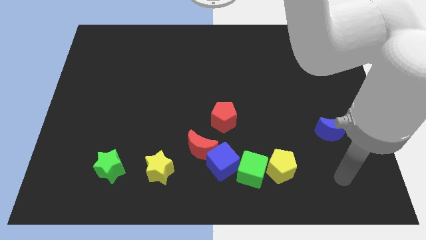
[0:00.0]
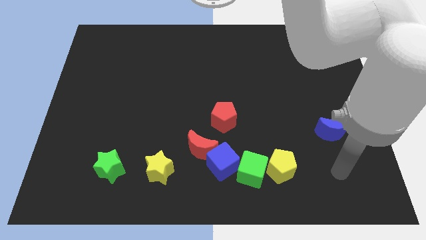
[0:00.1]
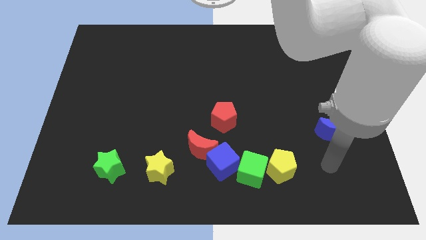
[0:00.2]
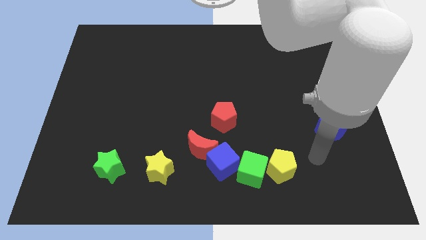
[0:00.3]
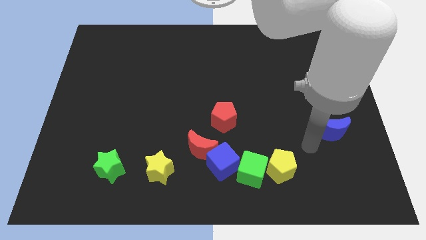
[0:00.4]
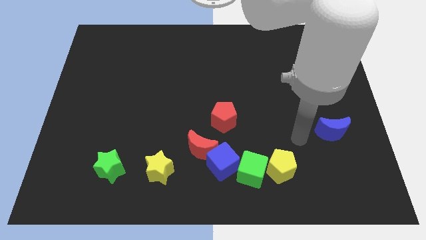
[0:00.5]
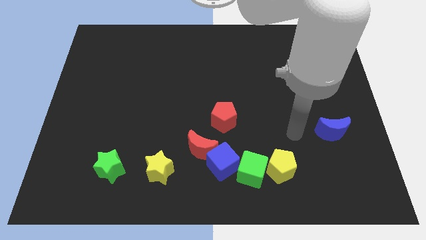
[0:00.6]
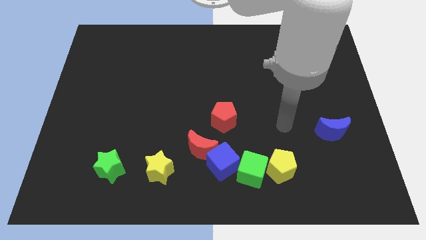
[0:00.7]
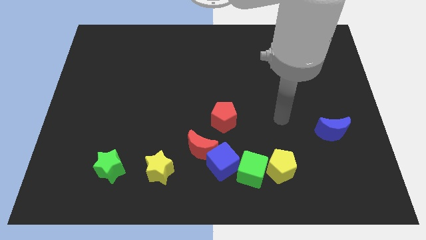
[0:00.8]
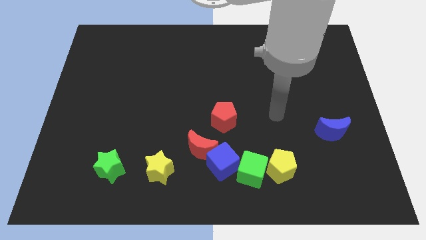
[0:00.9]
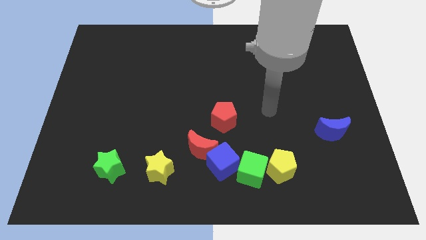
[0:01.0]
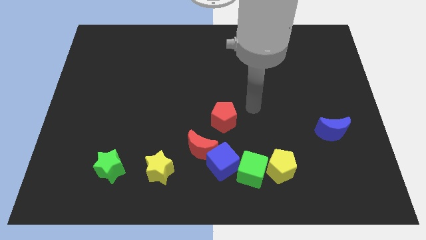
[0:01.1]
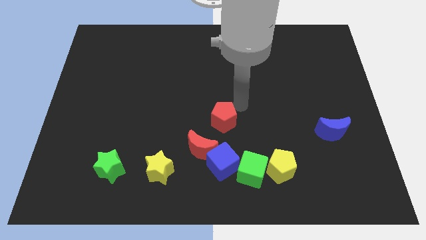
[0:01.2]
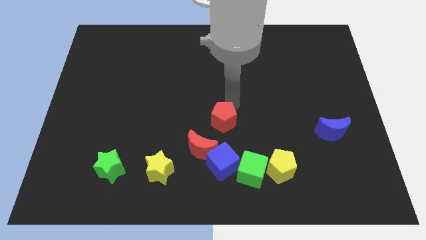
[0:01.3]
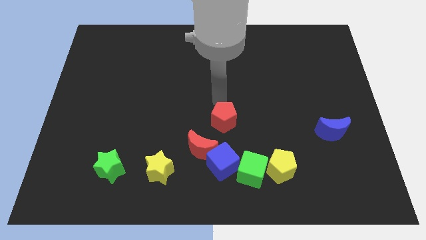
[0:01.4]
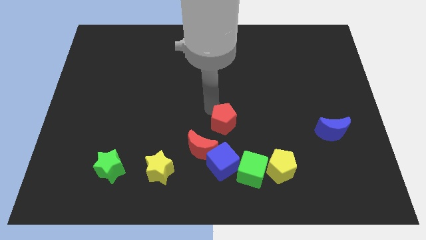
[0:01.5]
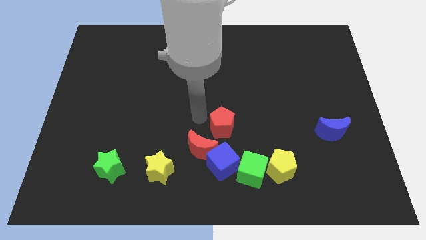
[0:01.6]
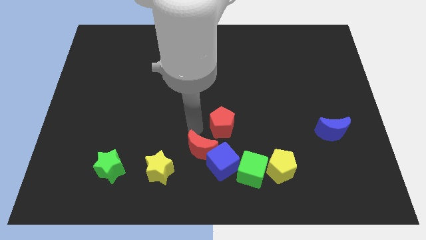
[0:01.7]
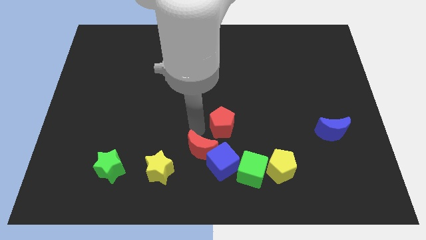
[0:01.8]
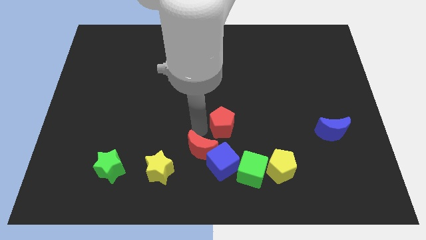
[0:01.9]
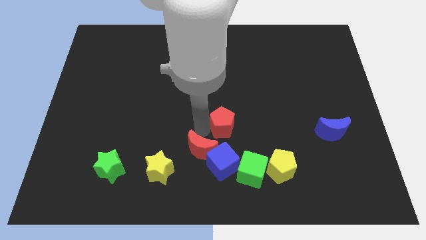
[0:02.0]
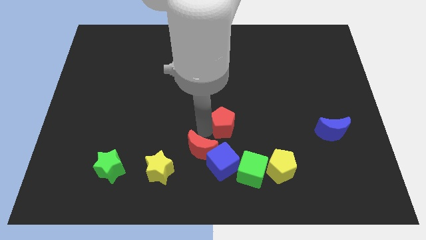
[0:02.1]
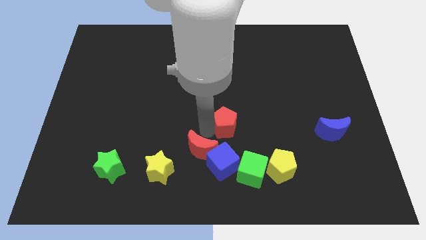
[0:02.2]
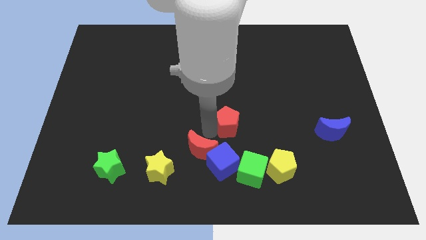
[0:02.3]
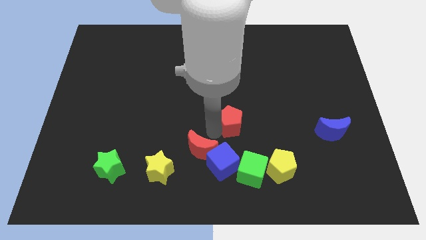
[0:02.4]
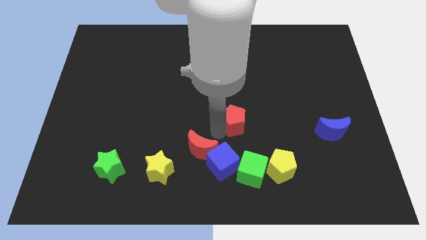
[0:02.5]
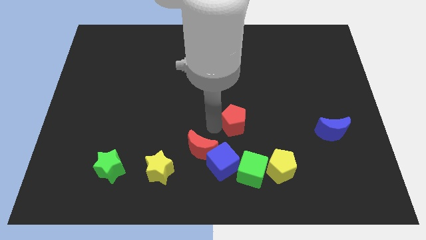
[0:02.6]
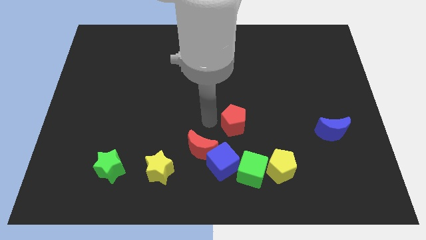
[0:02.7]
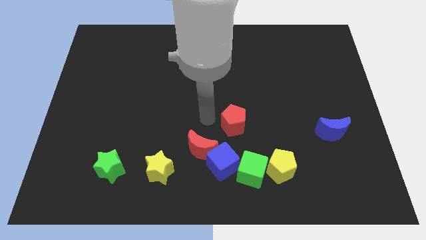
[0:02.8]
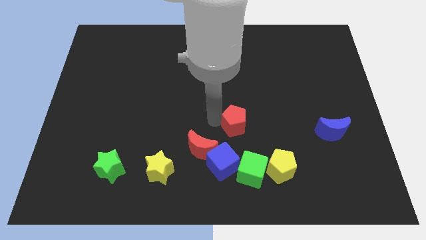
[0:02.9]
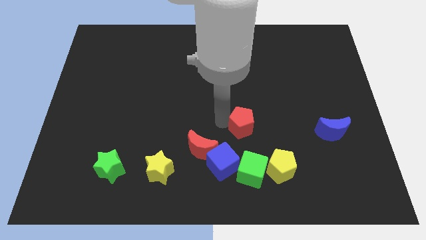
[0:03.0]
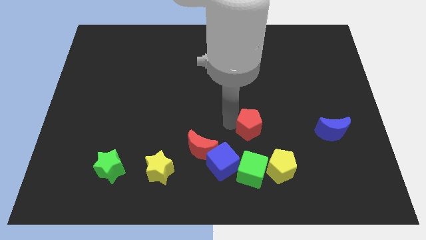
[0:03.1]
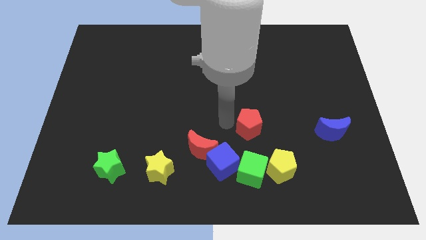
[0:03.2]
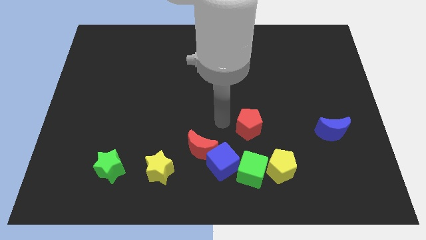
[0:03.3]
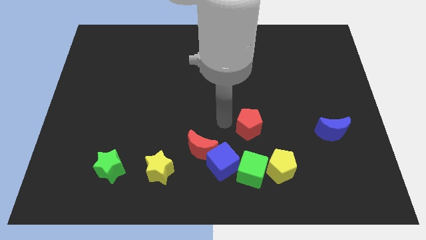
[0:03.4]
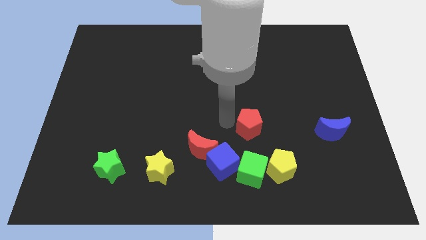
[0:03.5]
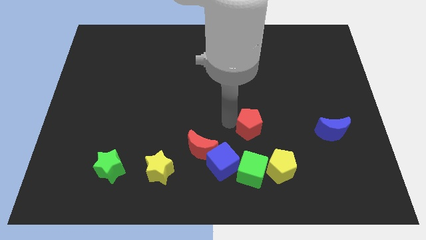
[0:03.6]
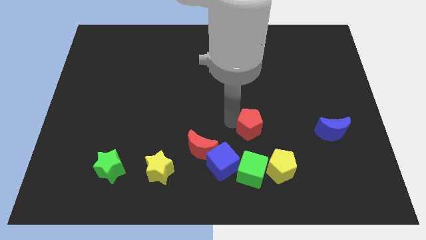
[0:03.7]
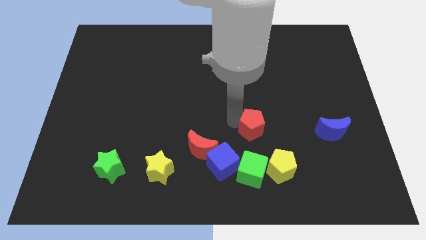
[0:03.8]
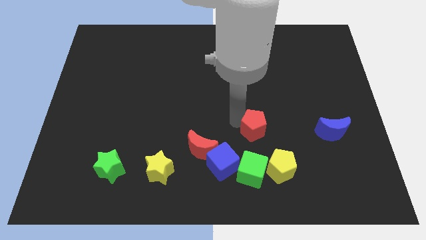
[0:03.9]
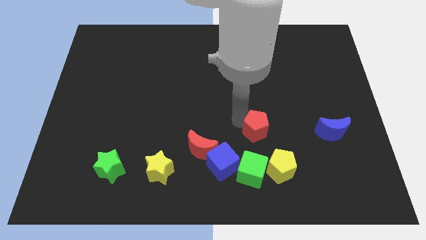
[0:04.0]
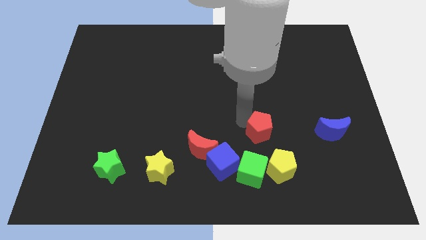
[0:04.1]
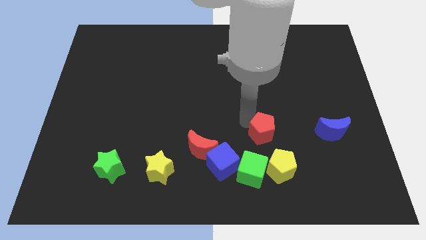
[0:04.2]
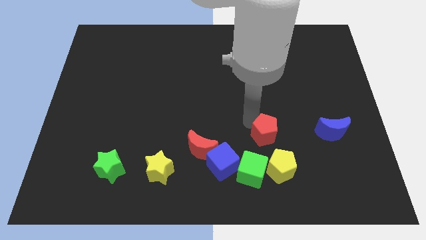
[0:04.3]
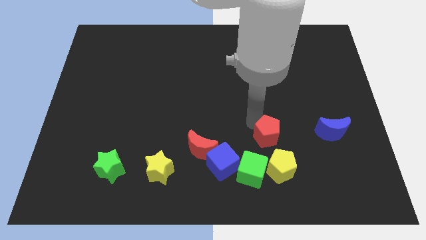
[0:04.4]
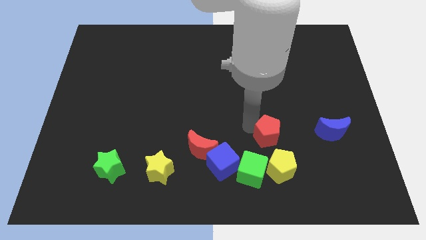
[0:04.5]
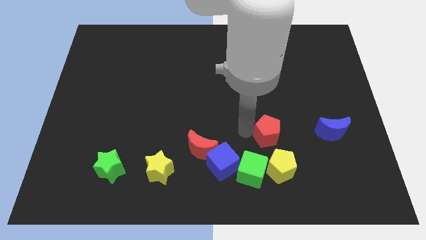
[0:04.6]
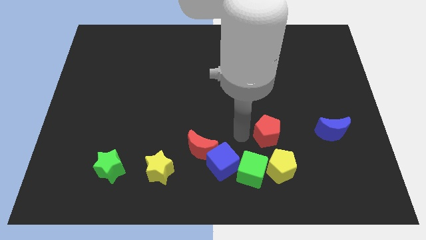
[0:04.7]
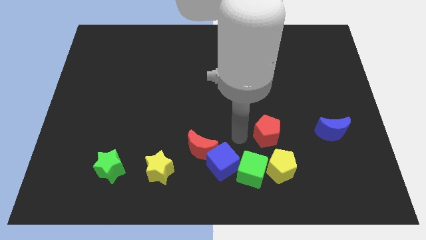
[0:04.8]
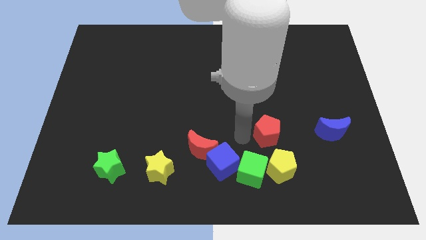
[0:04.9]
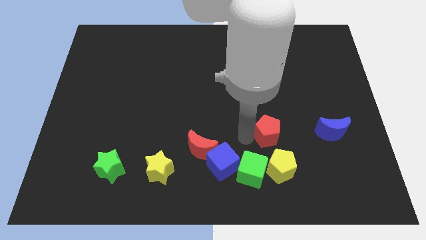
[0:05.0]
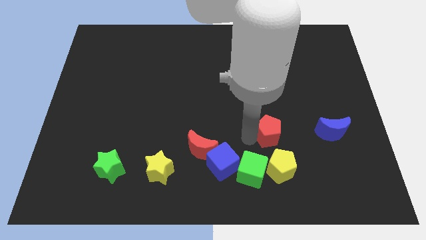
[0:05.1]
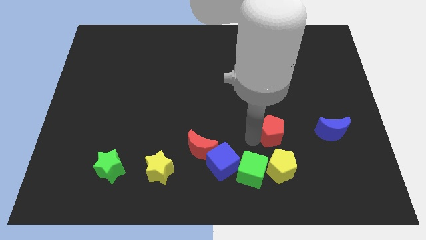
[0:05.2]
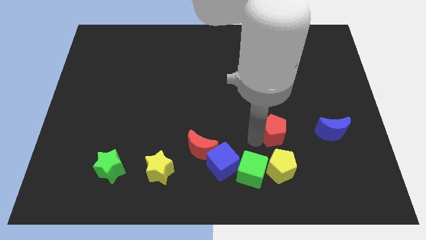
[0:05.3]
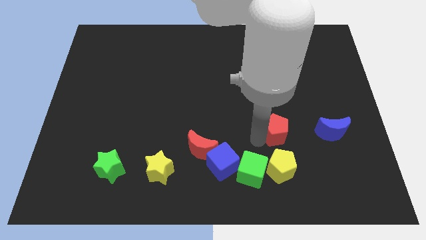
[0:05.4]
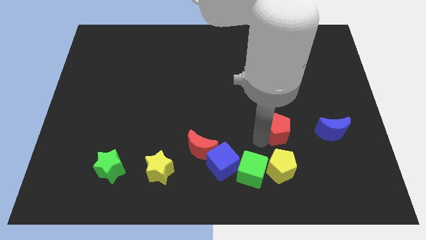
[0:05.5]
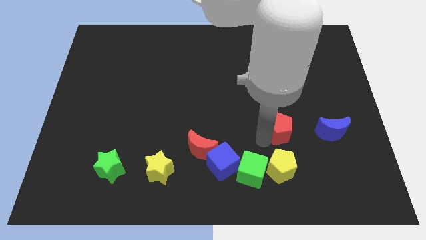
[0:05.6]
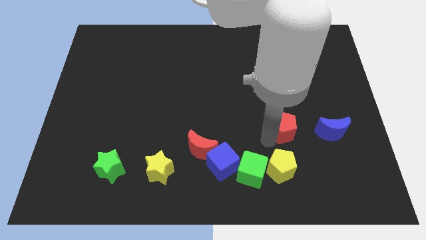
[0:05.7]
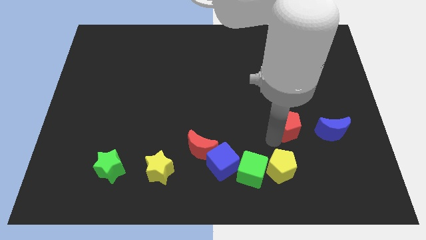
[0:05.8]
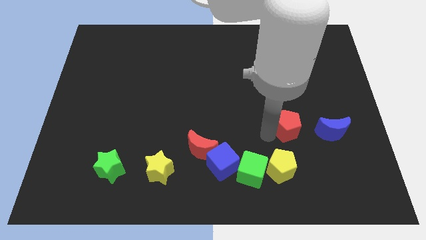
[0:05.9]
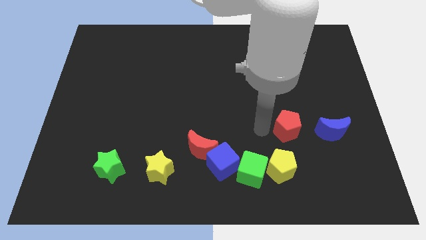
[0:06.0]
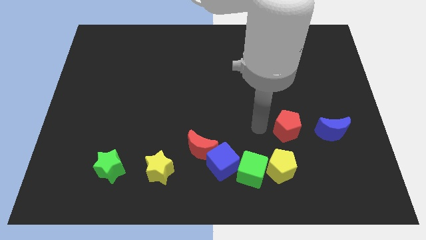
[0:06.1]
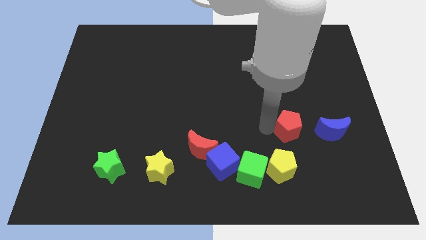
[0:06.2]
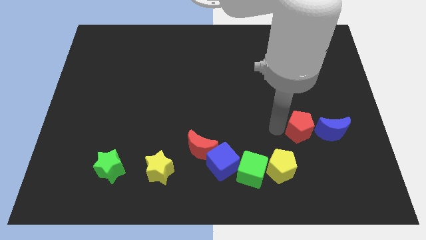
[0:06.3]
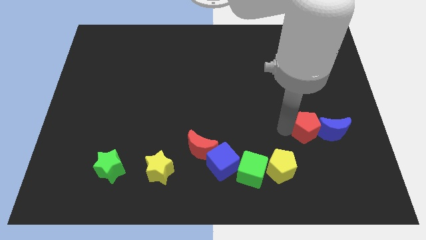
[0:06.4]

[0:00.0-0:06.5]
move the red pentagon close to the blue moon

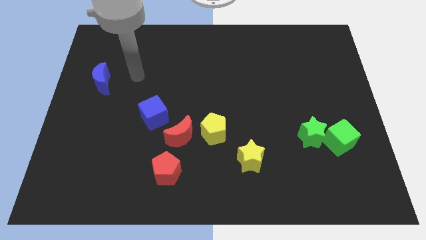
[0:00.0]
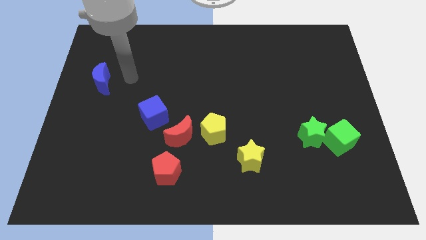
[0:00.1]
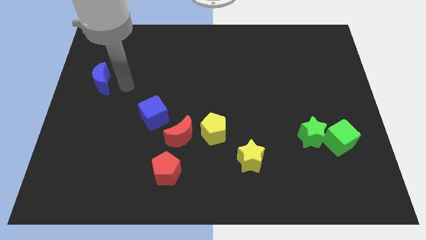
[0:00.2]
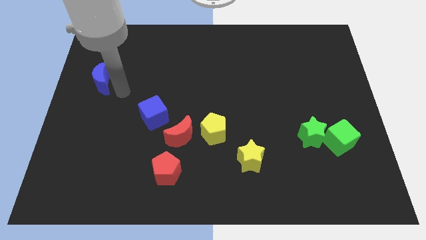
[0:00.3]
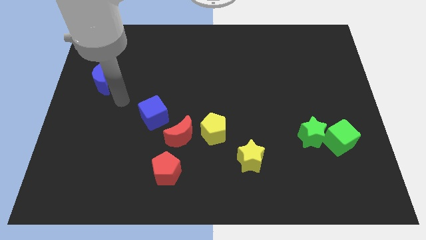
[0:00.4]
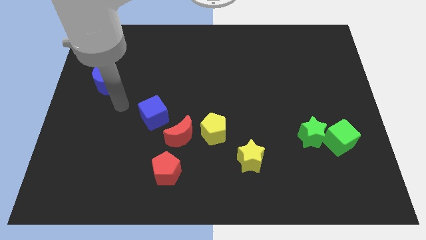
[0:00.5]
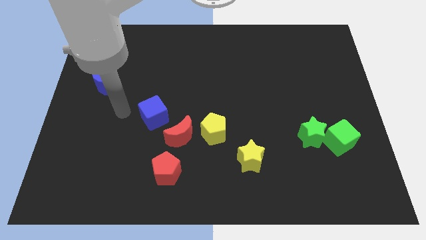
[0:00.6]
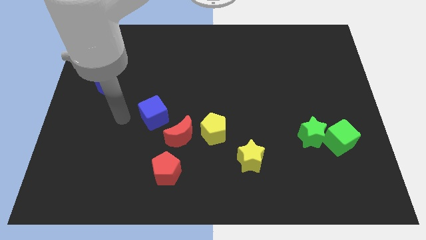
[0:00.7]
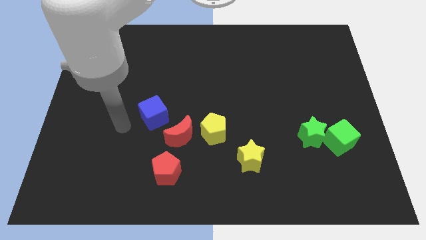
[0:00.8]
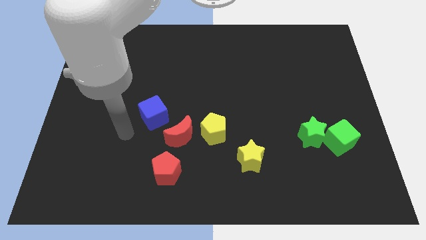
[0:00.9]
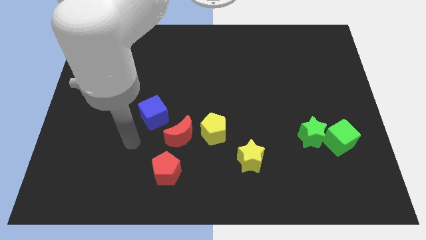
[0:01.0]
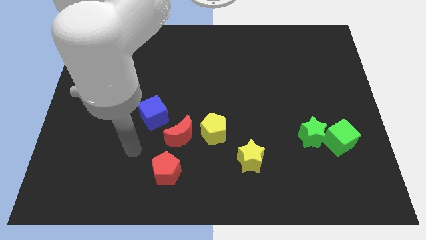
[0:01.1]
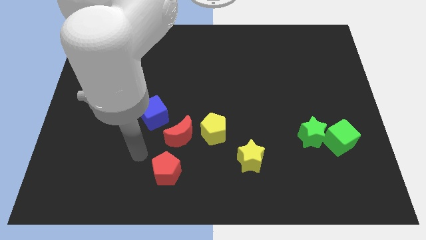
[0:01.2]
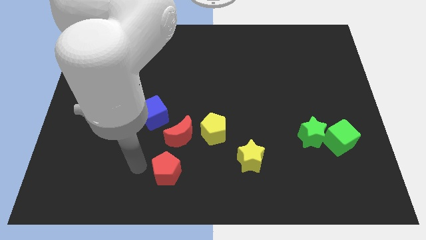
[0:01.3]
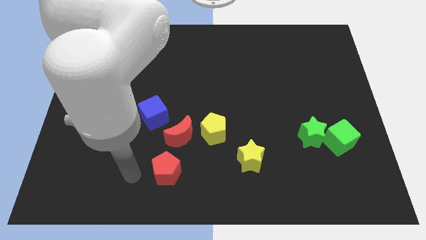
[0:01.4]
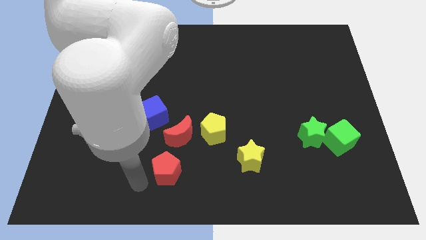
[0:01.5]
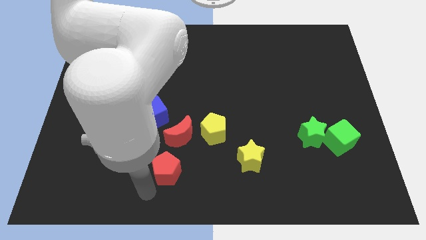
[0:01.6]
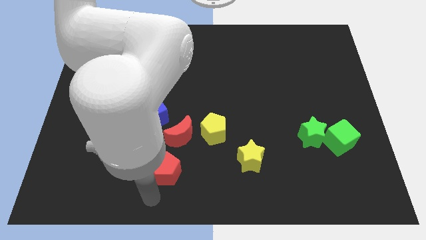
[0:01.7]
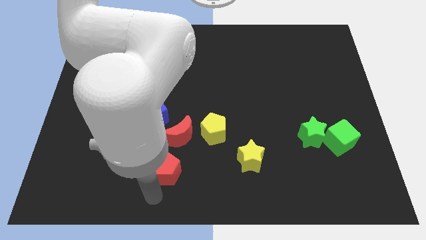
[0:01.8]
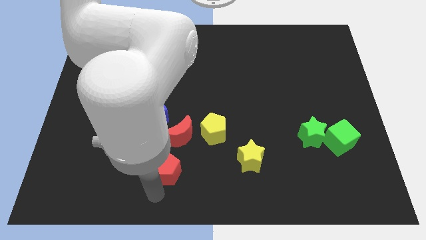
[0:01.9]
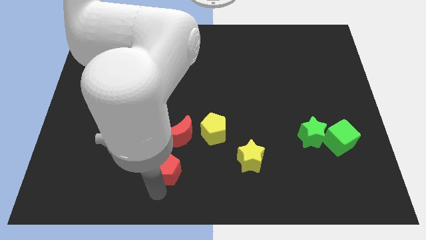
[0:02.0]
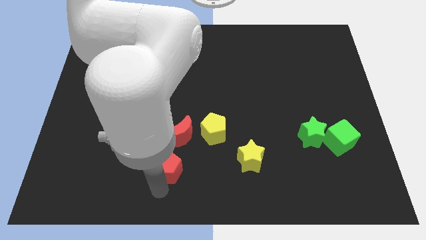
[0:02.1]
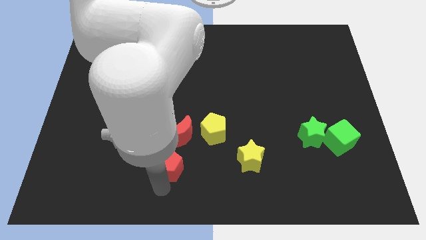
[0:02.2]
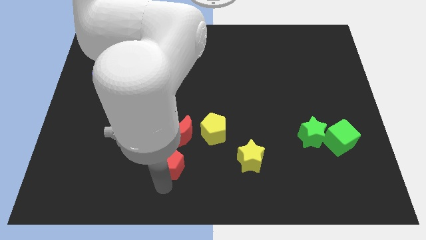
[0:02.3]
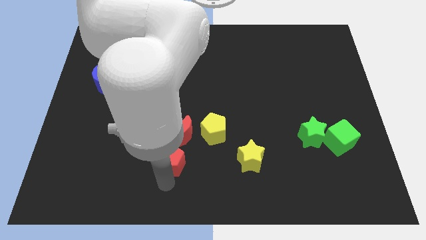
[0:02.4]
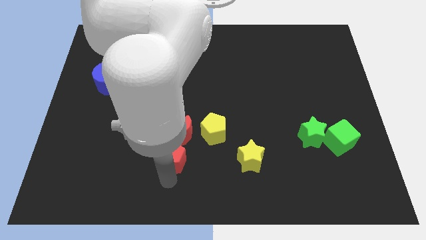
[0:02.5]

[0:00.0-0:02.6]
slide the red pentagon next to the red moon
